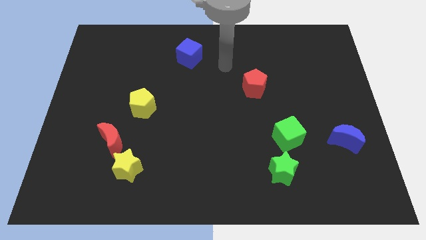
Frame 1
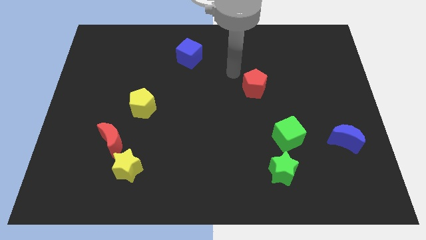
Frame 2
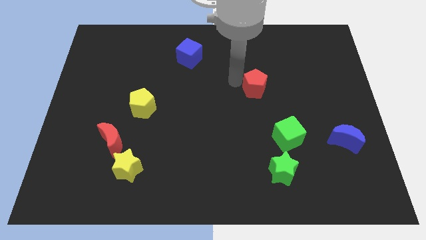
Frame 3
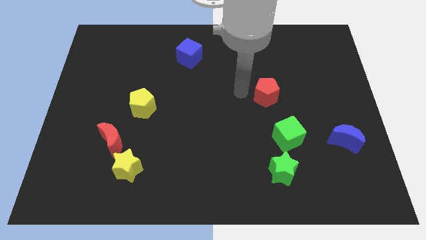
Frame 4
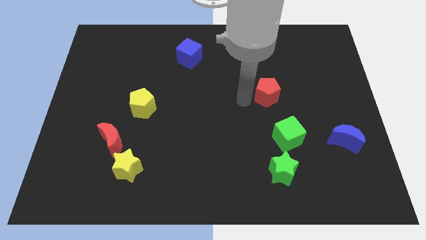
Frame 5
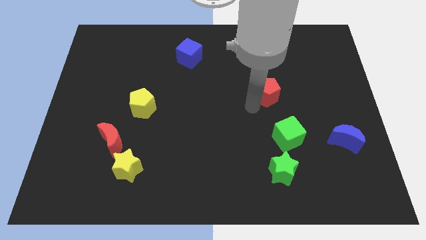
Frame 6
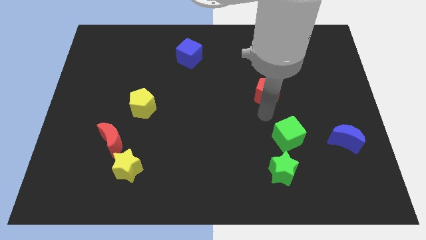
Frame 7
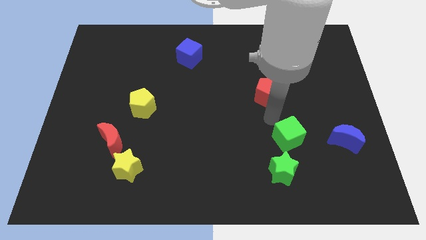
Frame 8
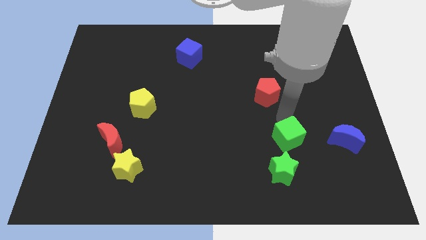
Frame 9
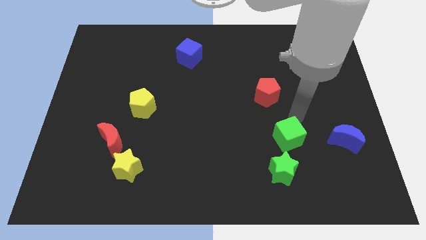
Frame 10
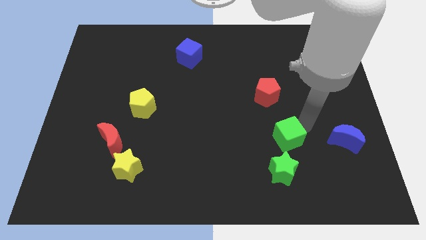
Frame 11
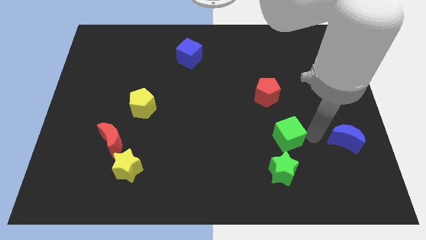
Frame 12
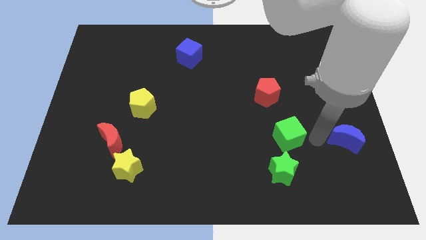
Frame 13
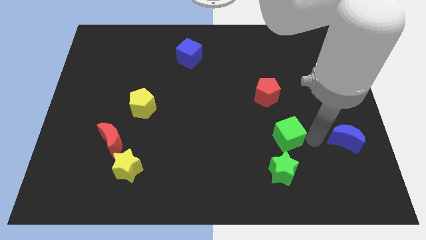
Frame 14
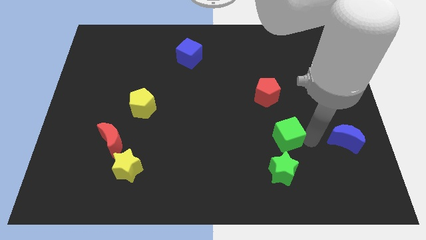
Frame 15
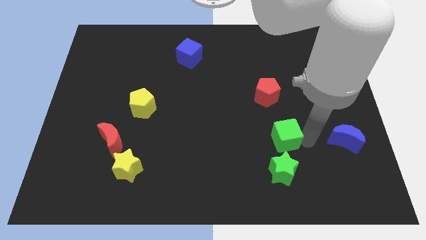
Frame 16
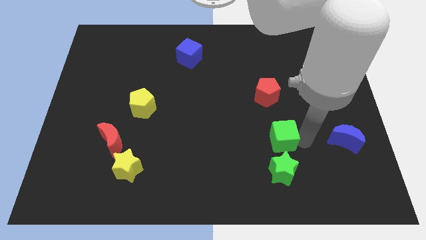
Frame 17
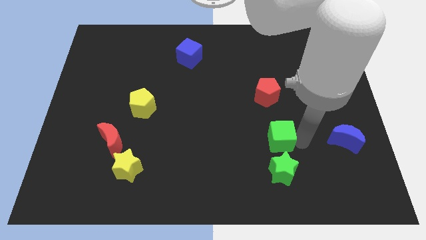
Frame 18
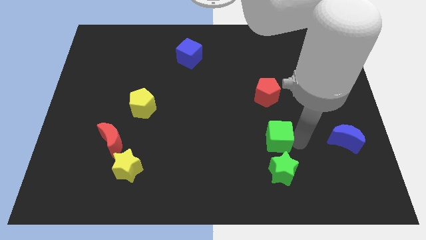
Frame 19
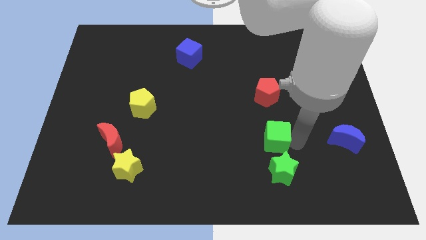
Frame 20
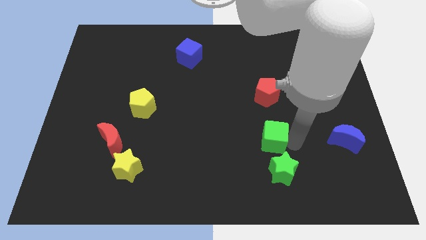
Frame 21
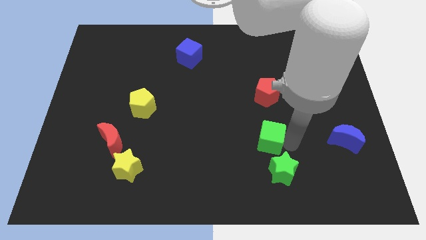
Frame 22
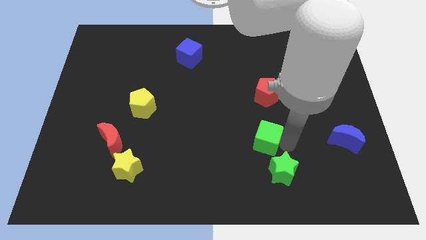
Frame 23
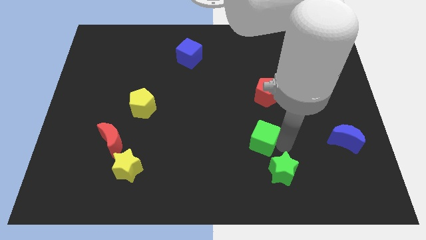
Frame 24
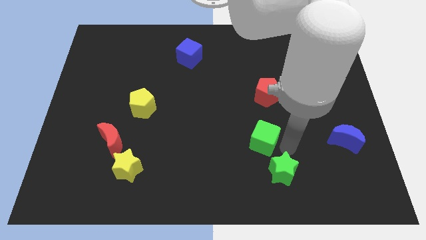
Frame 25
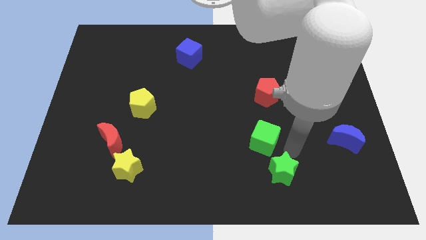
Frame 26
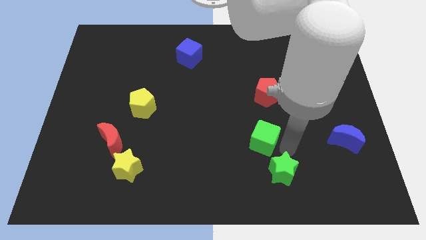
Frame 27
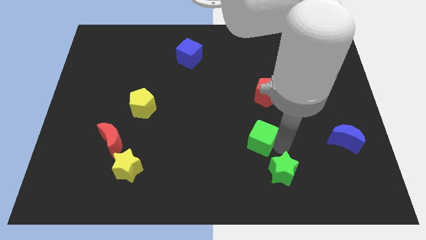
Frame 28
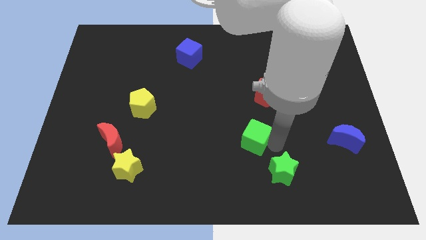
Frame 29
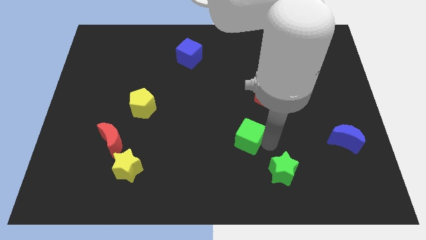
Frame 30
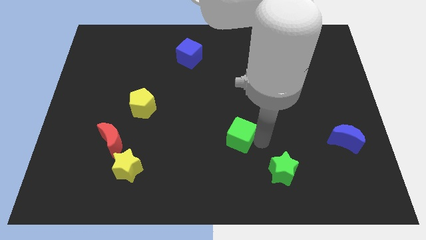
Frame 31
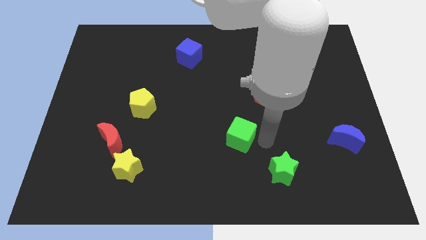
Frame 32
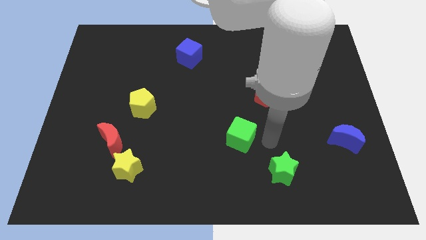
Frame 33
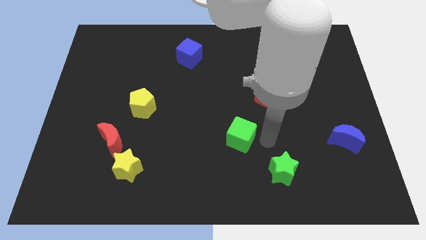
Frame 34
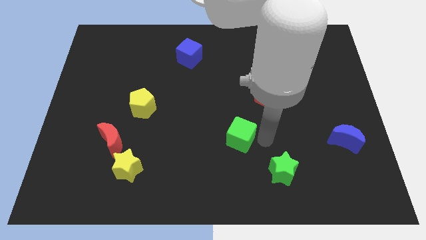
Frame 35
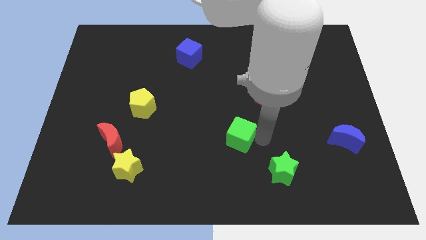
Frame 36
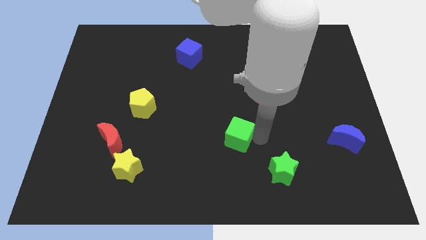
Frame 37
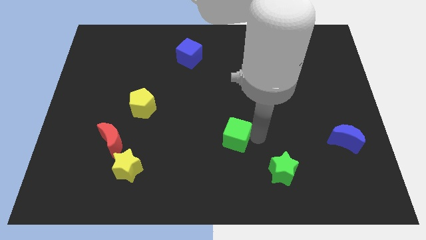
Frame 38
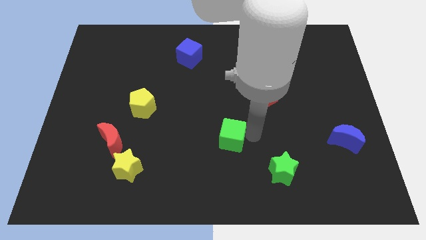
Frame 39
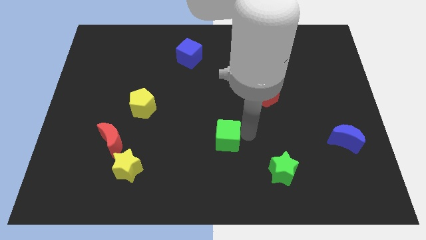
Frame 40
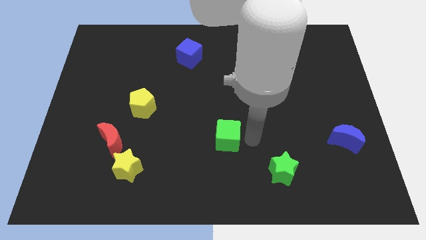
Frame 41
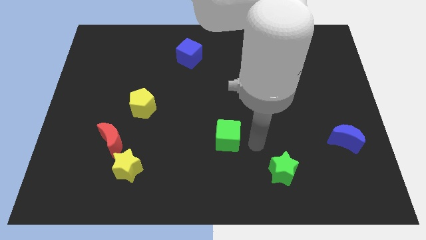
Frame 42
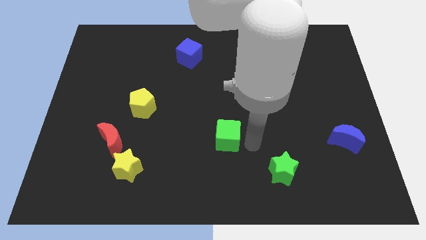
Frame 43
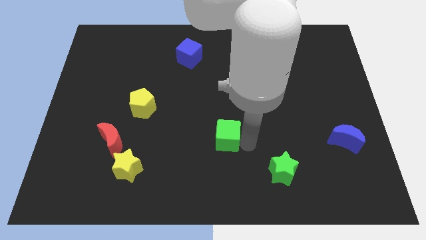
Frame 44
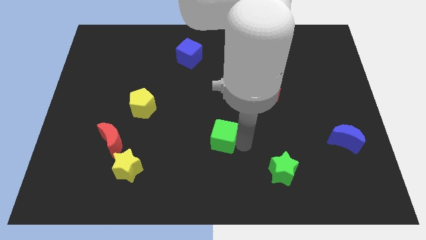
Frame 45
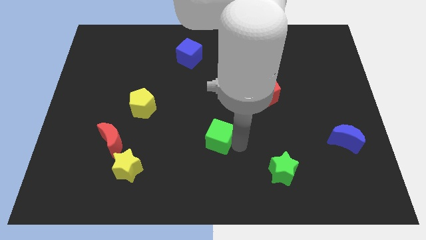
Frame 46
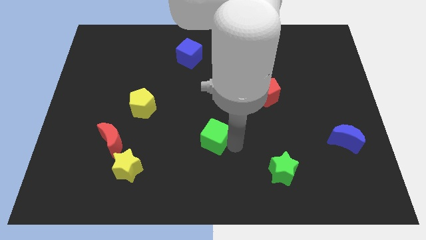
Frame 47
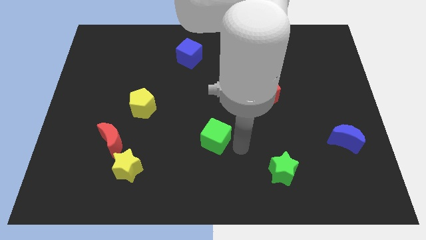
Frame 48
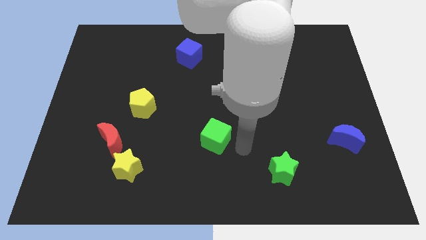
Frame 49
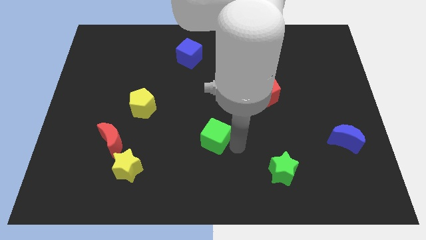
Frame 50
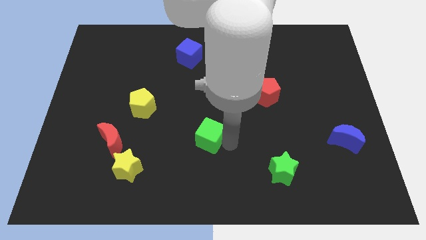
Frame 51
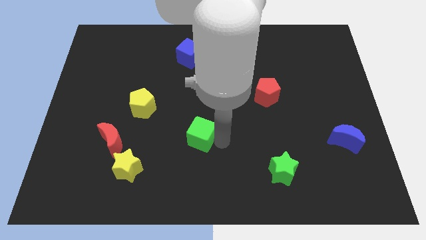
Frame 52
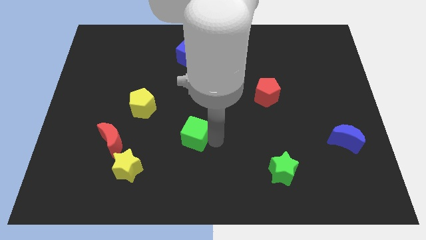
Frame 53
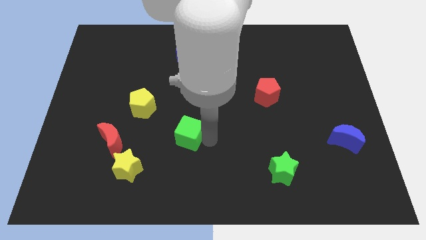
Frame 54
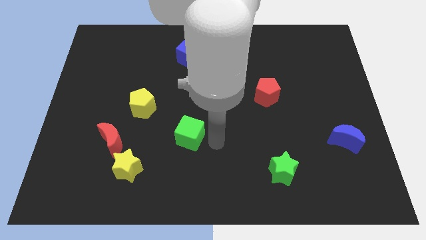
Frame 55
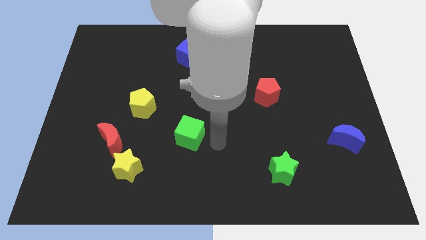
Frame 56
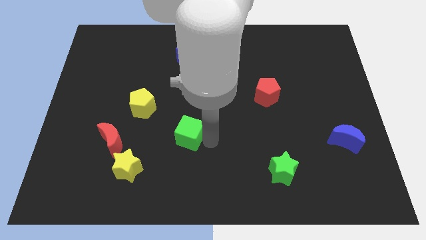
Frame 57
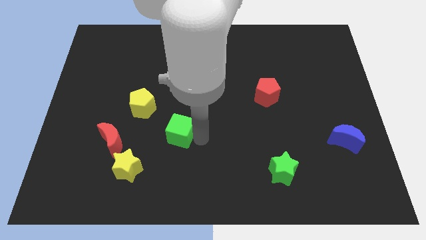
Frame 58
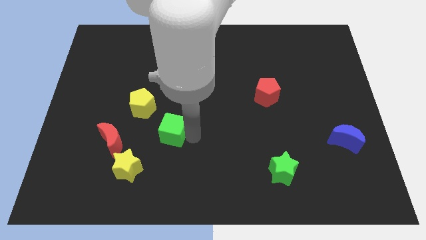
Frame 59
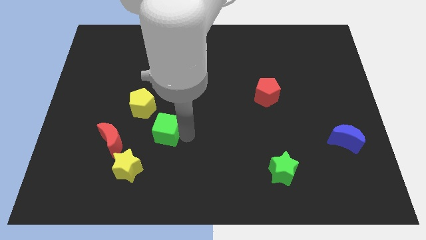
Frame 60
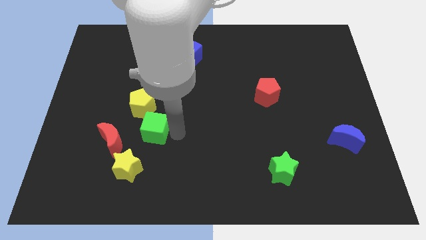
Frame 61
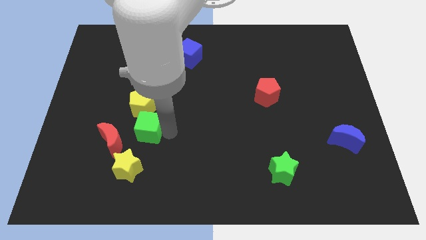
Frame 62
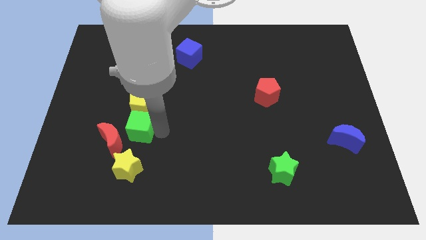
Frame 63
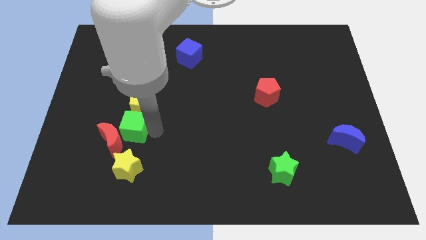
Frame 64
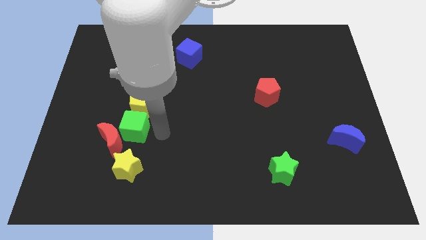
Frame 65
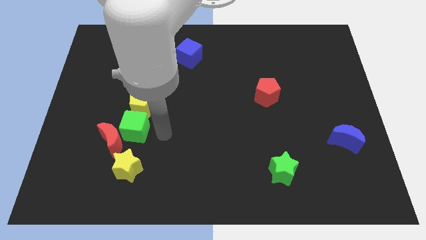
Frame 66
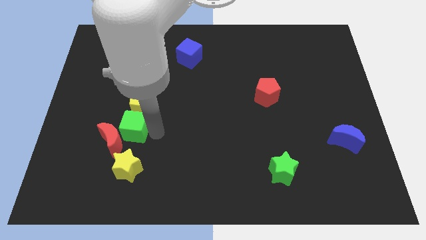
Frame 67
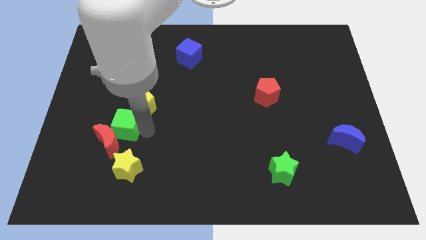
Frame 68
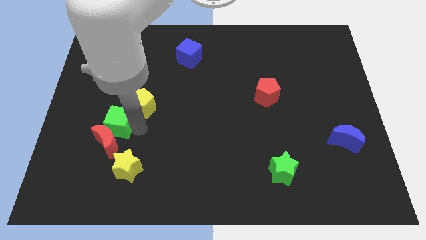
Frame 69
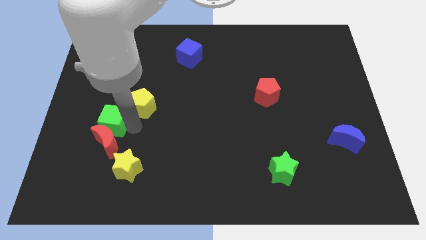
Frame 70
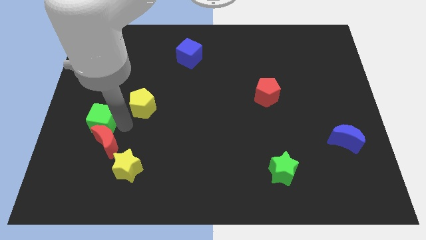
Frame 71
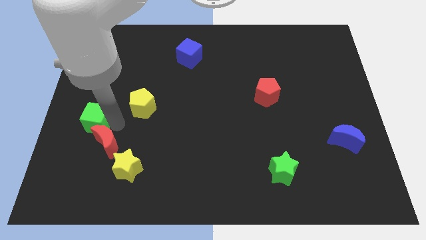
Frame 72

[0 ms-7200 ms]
slide the green cube to the left side of the board

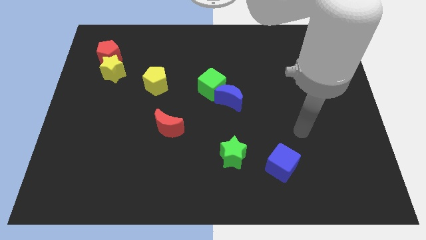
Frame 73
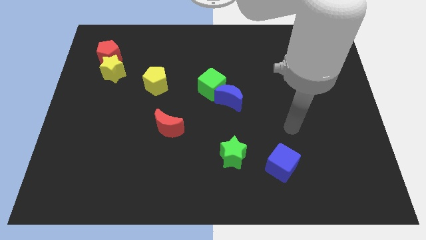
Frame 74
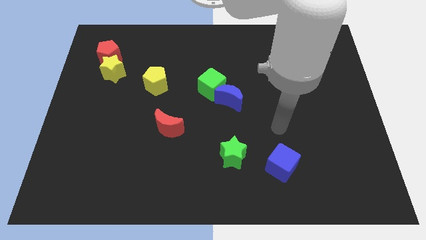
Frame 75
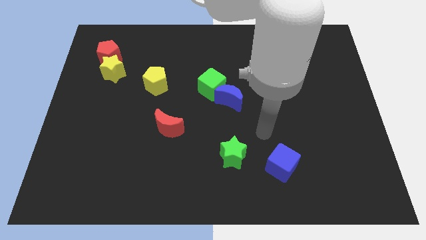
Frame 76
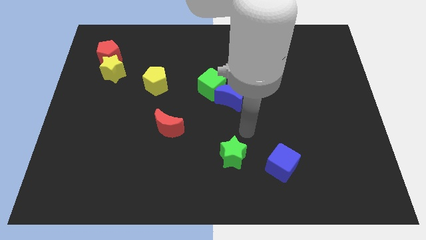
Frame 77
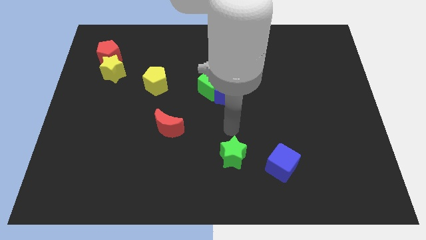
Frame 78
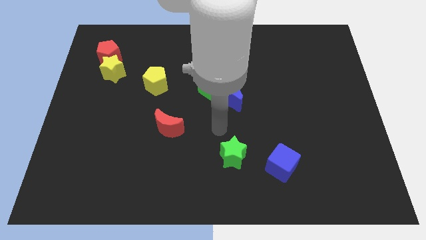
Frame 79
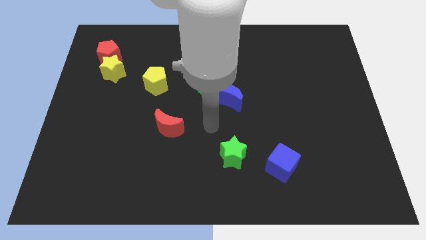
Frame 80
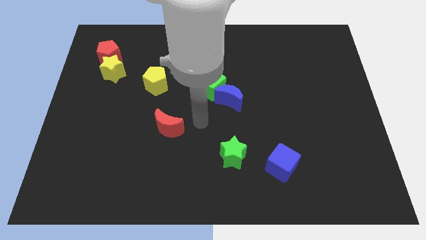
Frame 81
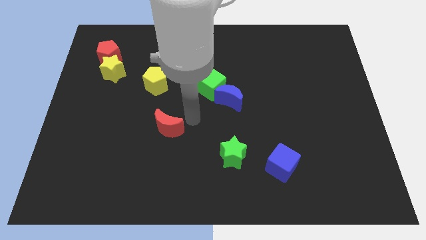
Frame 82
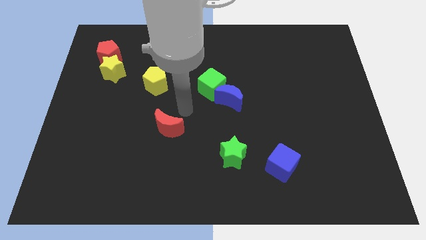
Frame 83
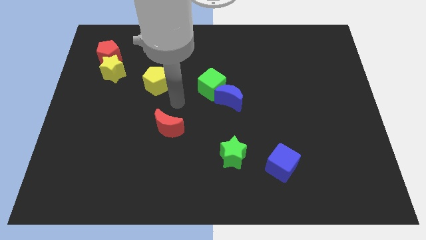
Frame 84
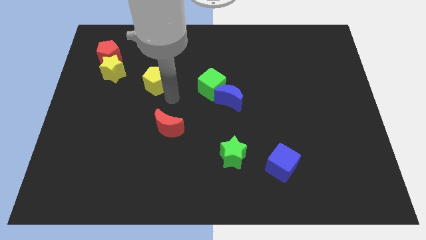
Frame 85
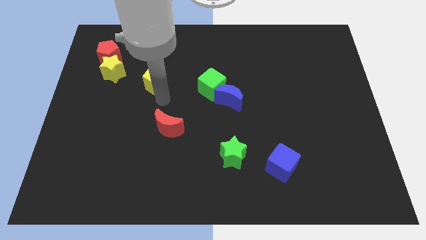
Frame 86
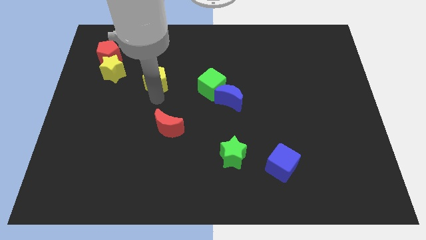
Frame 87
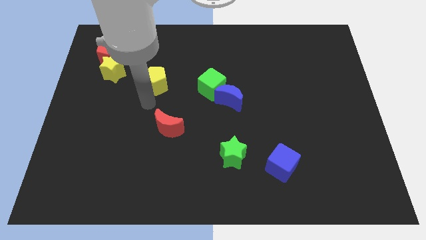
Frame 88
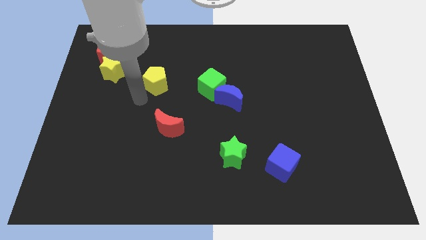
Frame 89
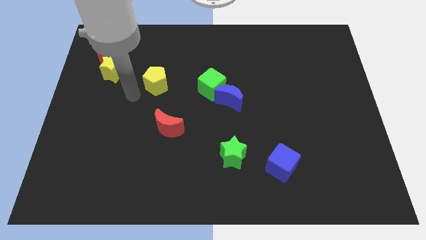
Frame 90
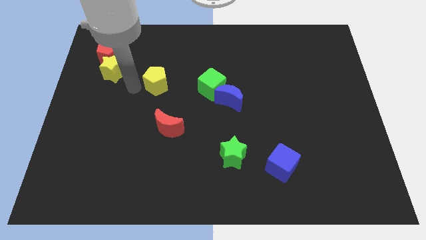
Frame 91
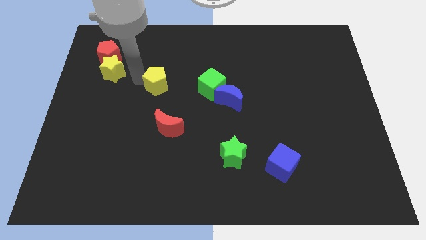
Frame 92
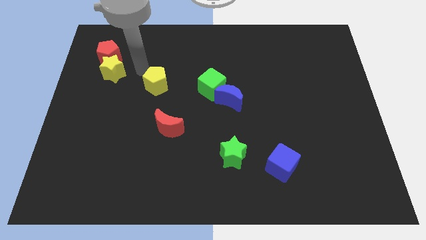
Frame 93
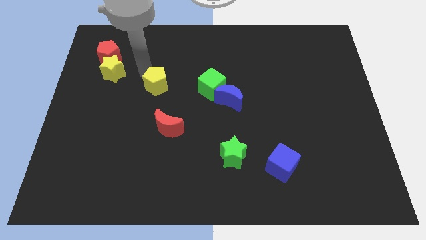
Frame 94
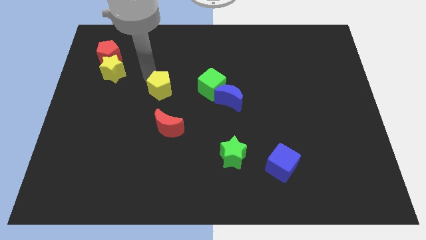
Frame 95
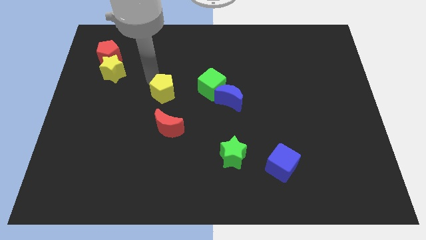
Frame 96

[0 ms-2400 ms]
put the yellow pentagon to the middle
